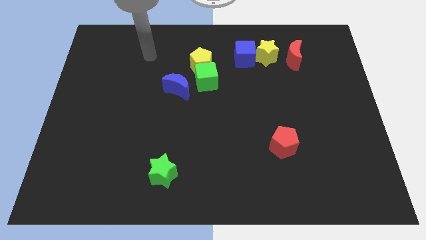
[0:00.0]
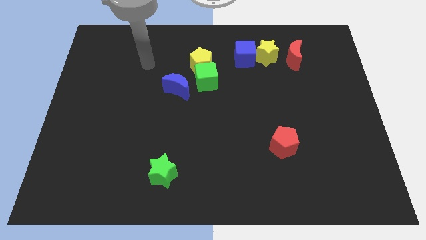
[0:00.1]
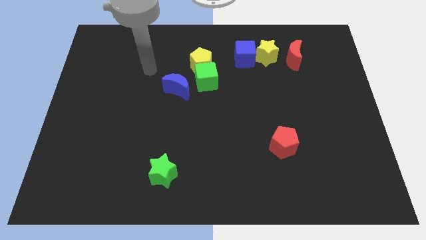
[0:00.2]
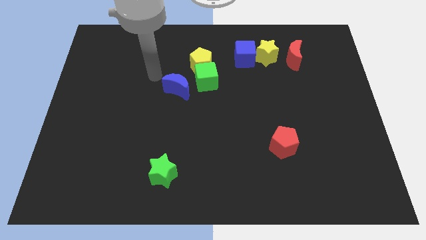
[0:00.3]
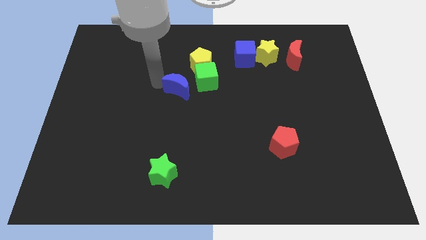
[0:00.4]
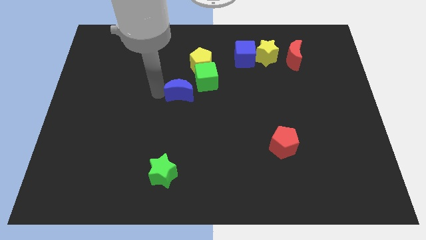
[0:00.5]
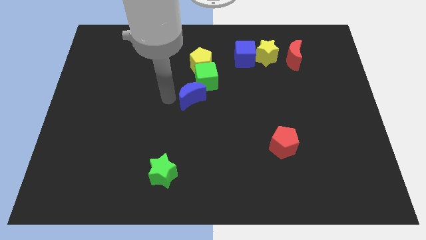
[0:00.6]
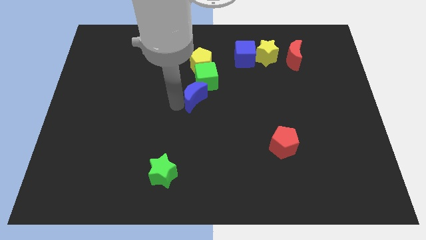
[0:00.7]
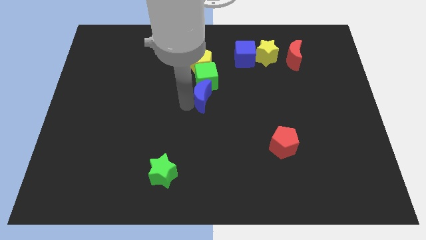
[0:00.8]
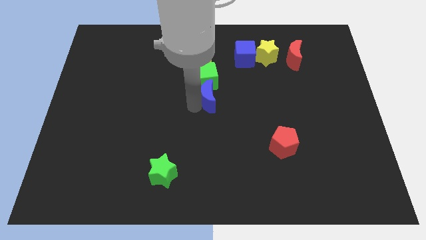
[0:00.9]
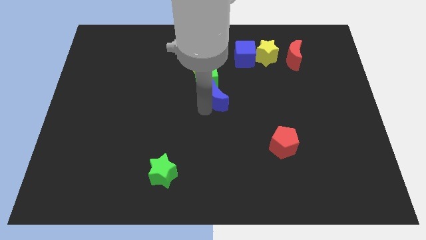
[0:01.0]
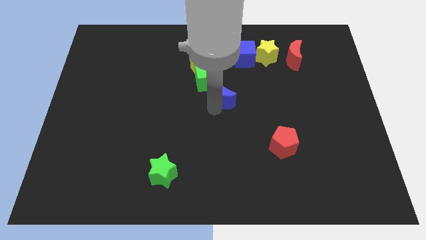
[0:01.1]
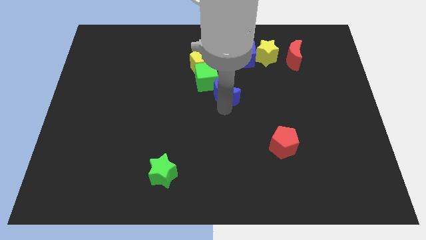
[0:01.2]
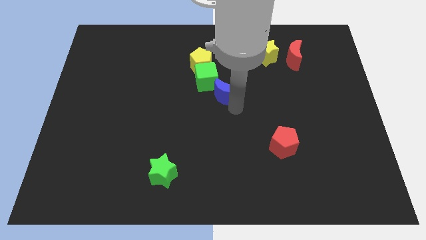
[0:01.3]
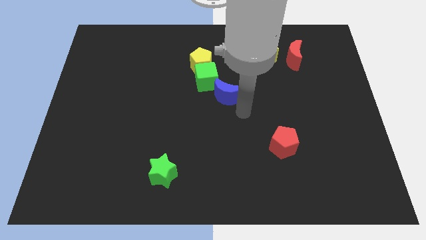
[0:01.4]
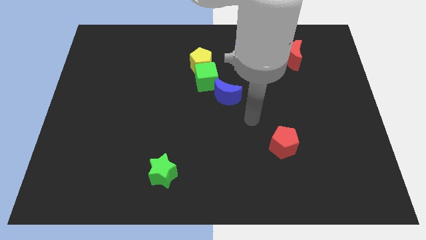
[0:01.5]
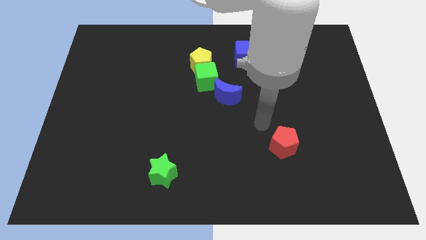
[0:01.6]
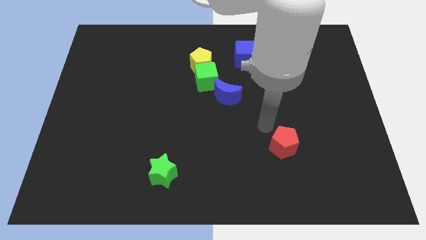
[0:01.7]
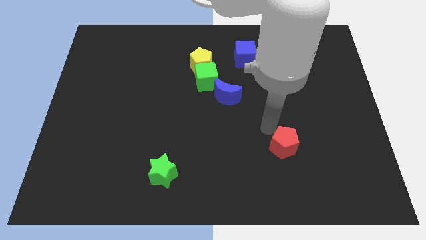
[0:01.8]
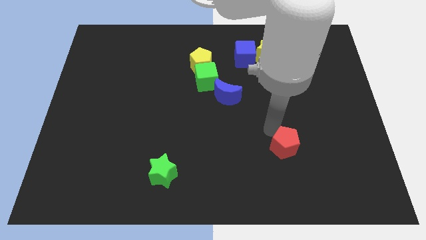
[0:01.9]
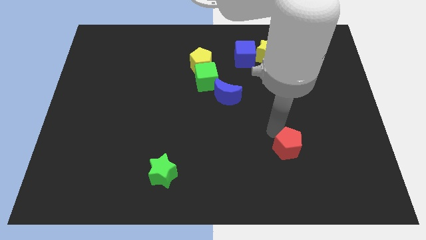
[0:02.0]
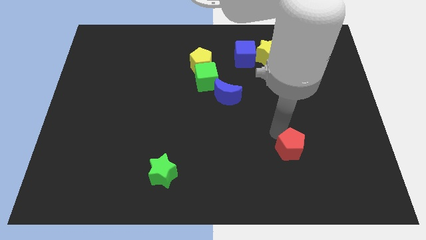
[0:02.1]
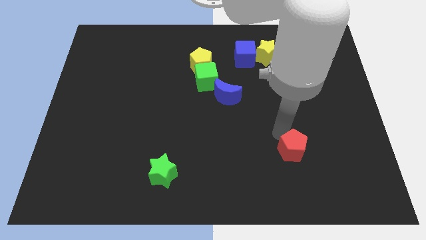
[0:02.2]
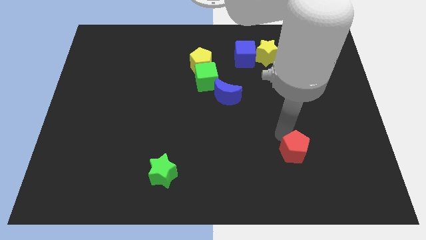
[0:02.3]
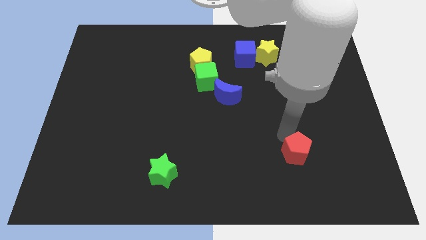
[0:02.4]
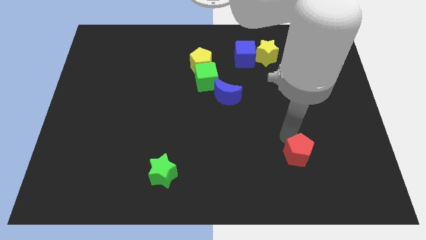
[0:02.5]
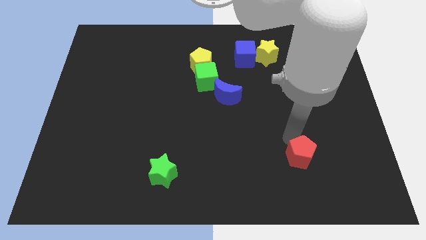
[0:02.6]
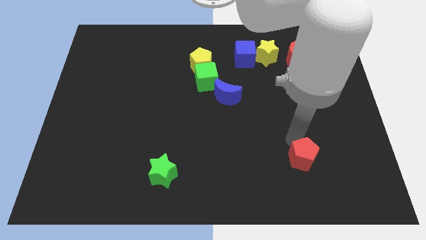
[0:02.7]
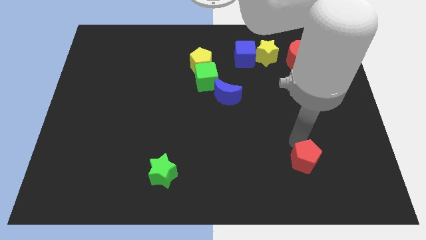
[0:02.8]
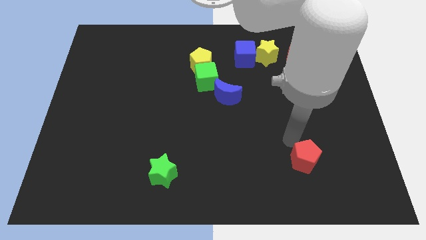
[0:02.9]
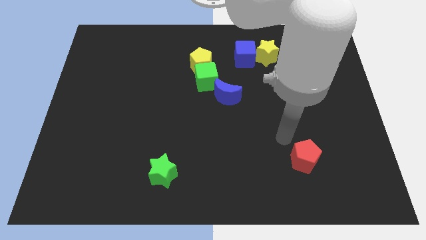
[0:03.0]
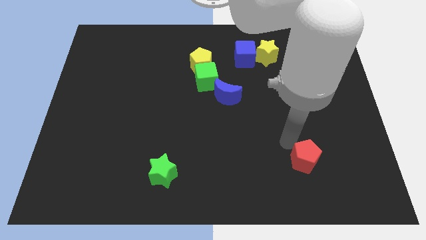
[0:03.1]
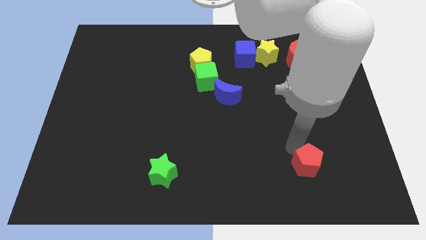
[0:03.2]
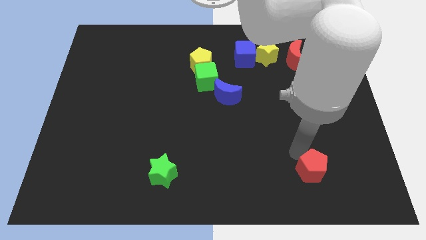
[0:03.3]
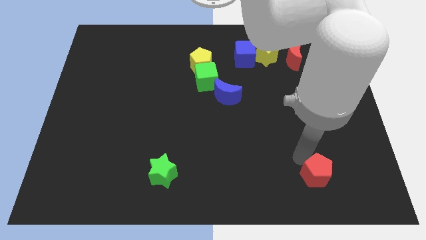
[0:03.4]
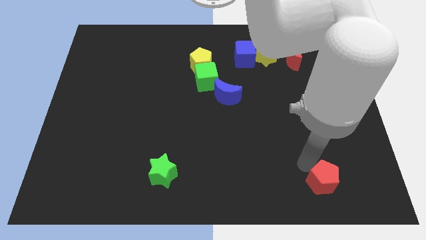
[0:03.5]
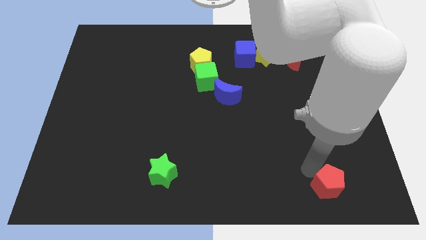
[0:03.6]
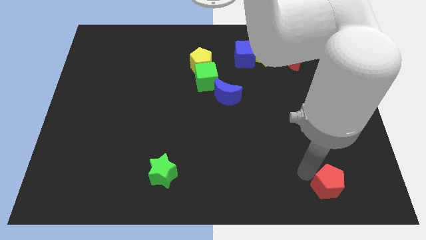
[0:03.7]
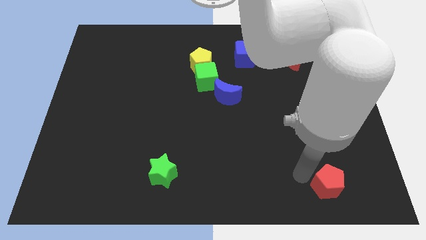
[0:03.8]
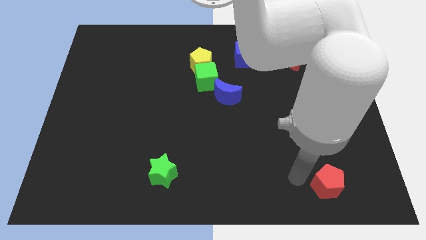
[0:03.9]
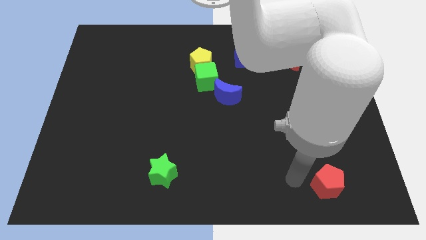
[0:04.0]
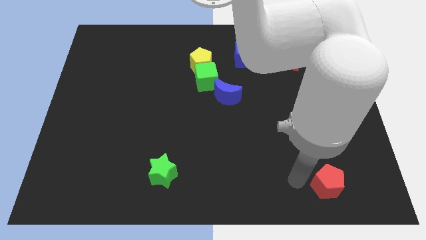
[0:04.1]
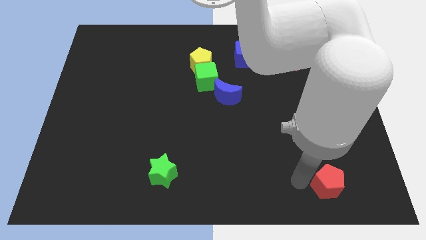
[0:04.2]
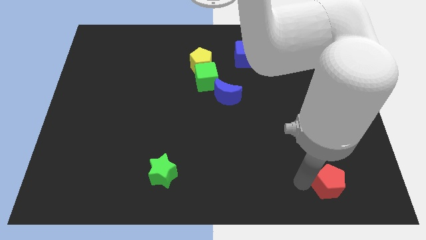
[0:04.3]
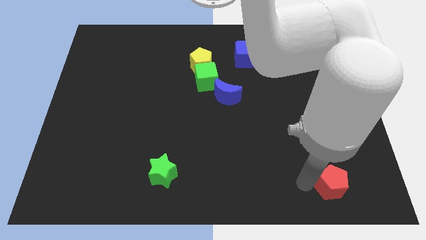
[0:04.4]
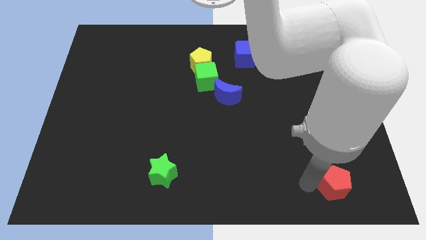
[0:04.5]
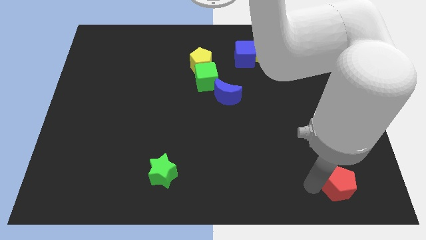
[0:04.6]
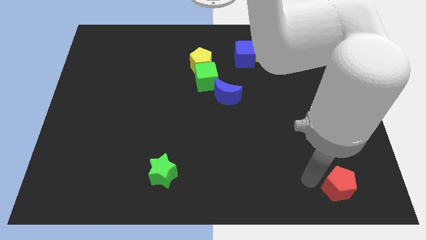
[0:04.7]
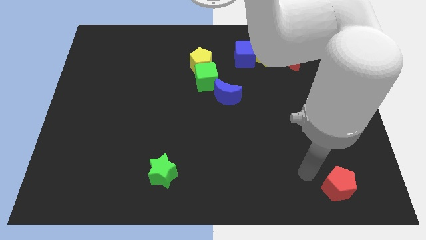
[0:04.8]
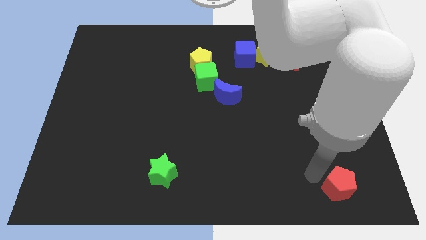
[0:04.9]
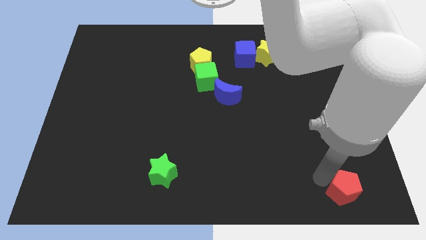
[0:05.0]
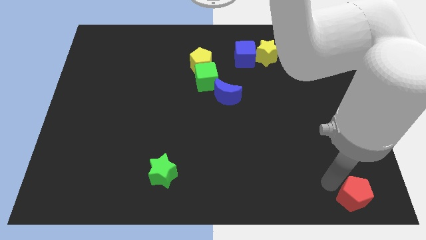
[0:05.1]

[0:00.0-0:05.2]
put the red pentagon to the bottom right

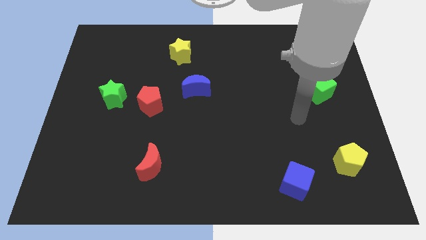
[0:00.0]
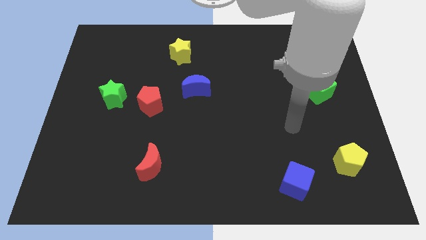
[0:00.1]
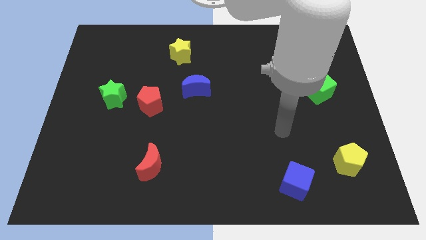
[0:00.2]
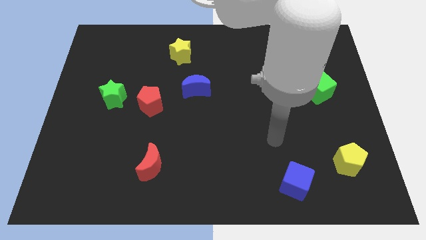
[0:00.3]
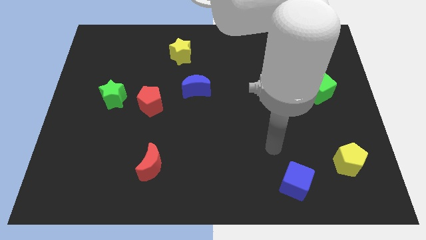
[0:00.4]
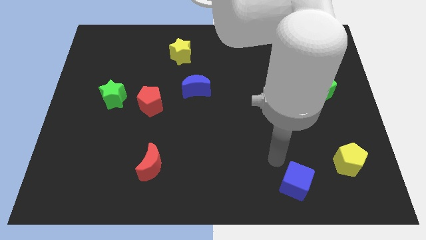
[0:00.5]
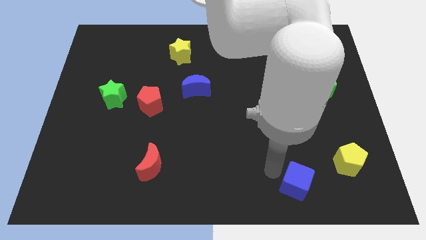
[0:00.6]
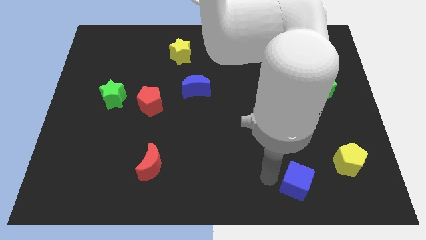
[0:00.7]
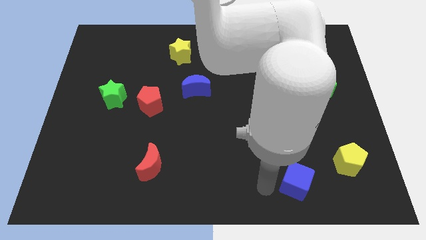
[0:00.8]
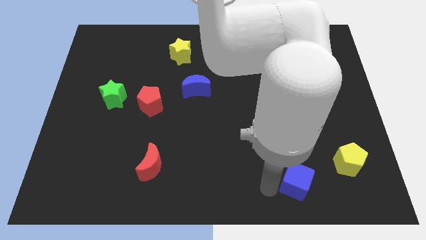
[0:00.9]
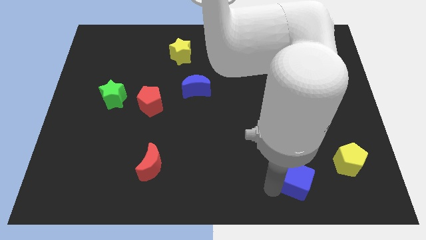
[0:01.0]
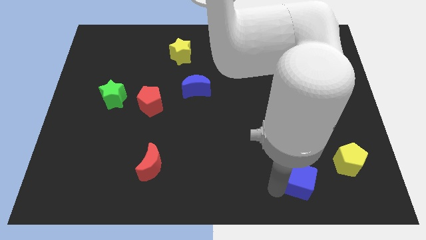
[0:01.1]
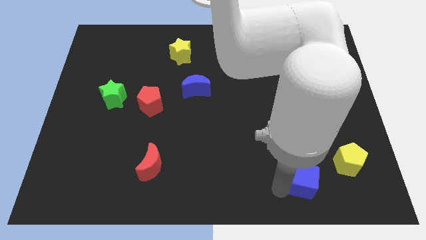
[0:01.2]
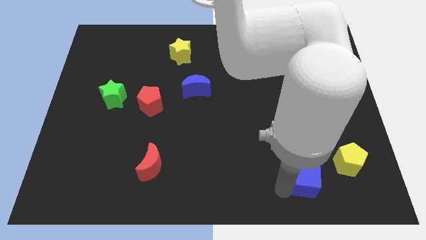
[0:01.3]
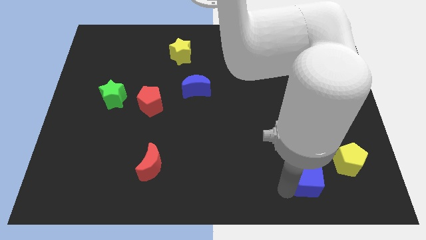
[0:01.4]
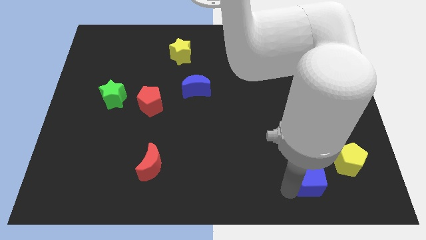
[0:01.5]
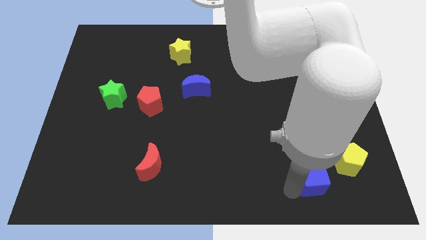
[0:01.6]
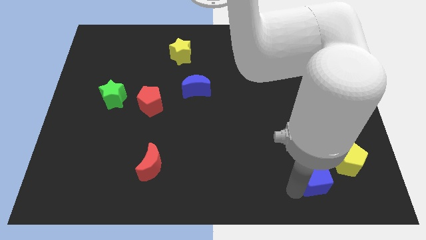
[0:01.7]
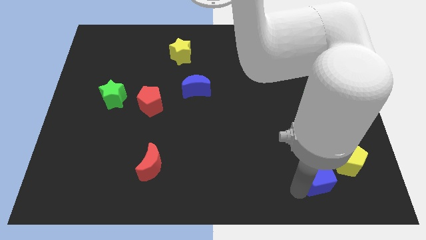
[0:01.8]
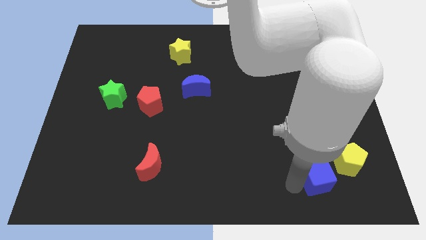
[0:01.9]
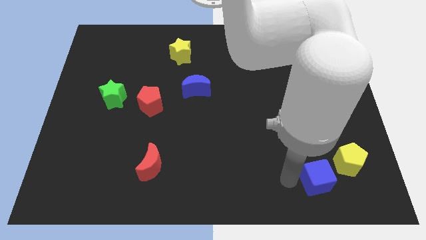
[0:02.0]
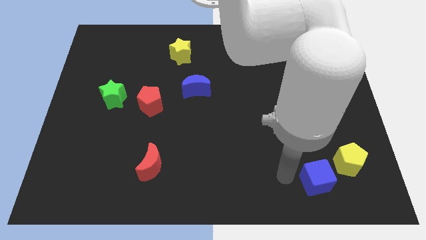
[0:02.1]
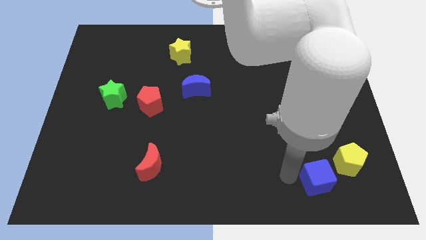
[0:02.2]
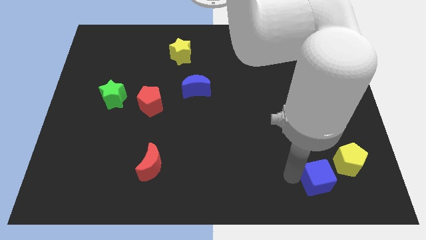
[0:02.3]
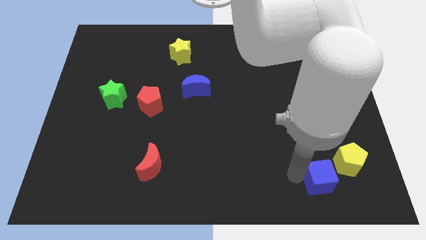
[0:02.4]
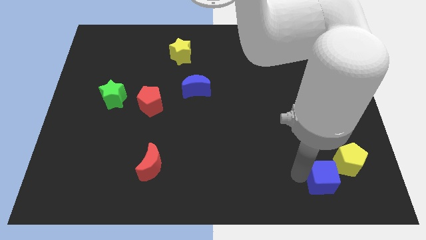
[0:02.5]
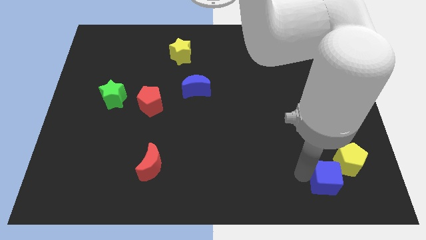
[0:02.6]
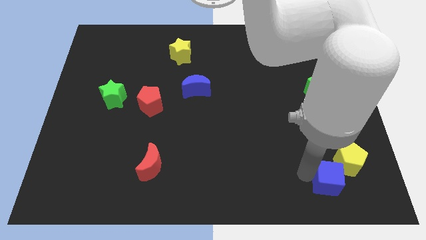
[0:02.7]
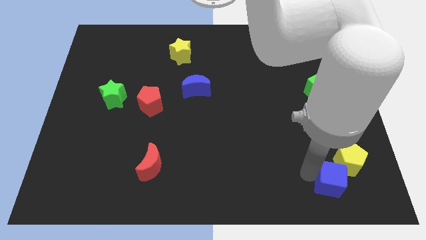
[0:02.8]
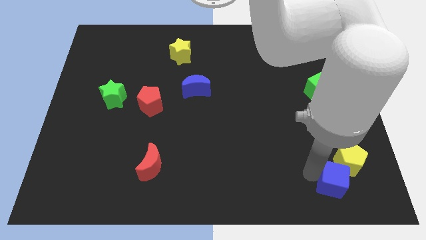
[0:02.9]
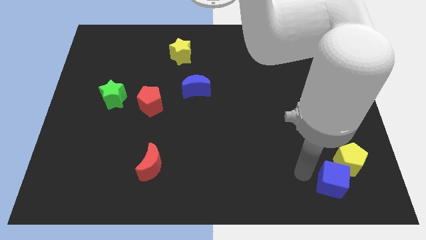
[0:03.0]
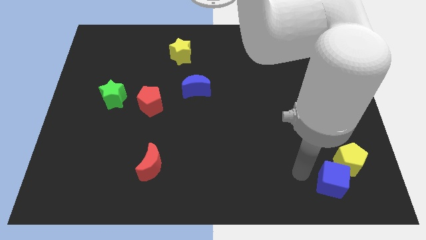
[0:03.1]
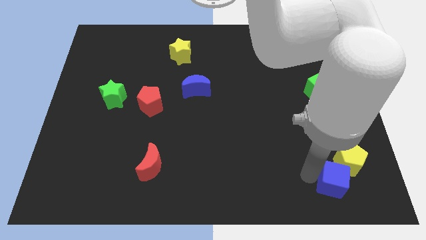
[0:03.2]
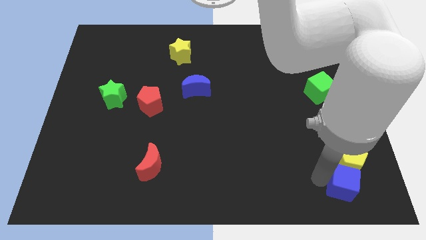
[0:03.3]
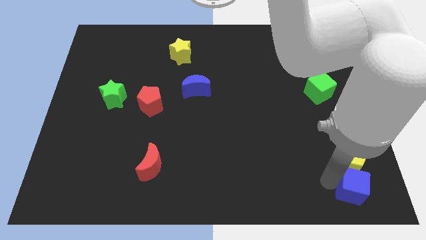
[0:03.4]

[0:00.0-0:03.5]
slide the blue cube to the lower right corner
